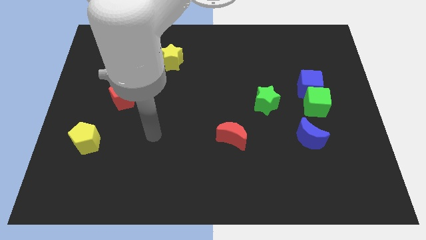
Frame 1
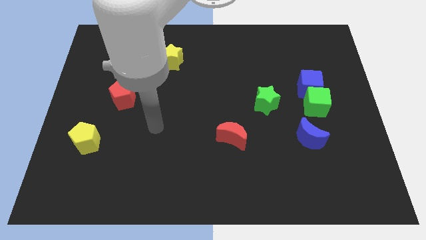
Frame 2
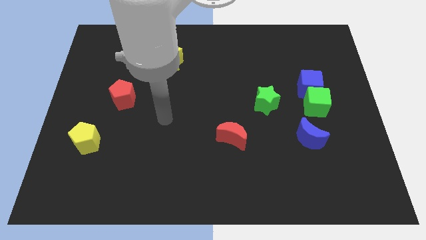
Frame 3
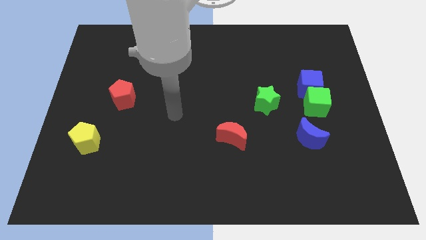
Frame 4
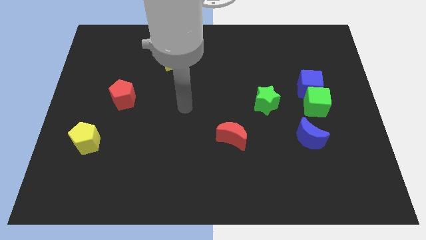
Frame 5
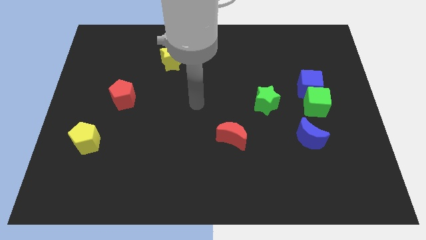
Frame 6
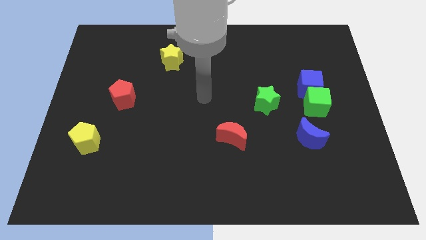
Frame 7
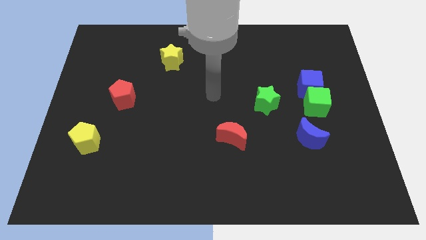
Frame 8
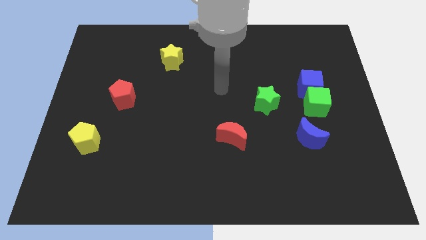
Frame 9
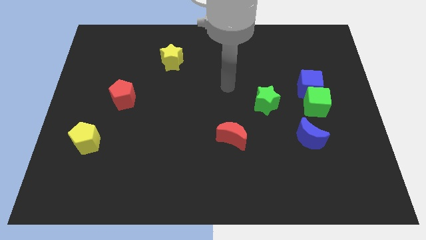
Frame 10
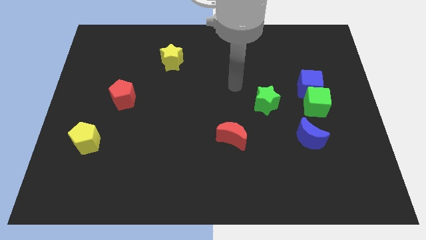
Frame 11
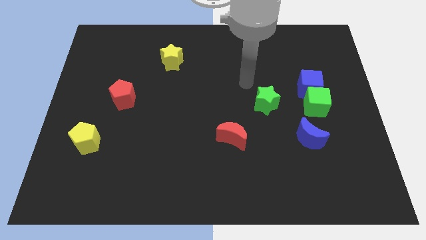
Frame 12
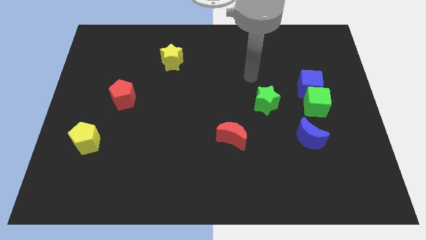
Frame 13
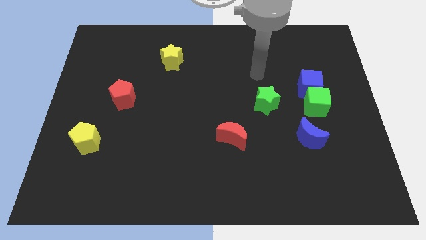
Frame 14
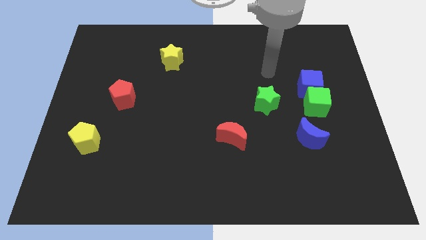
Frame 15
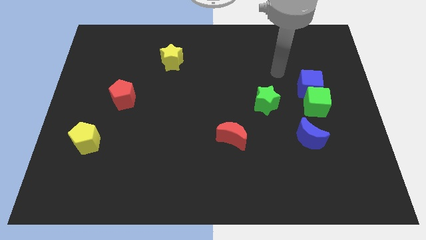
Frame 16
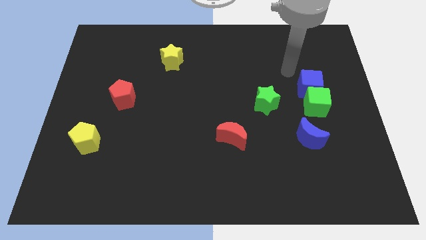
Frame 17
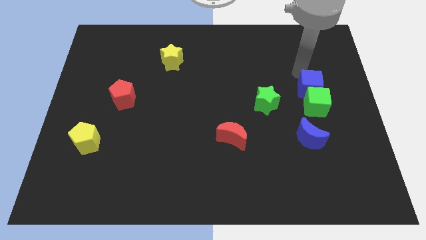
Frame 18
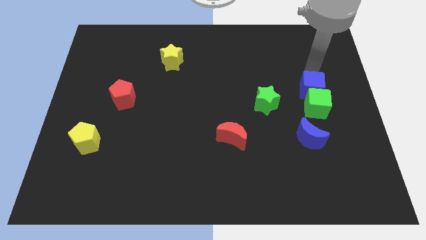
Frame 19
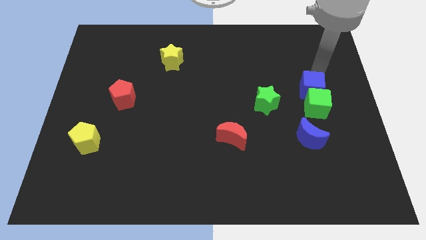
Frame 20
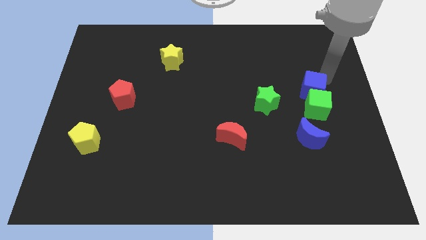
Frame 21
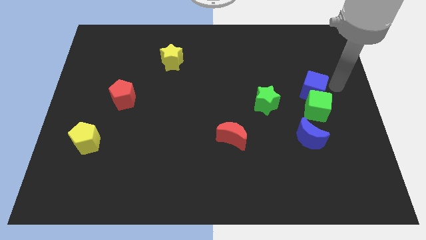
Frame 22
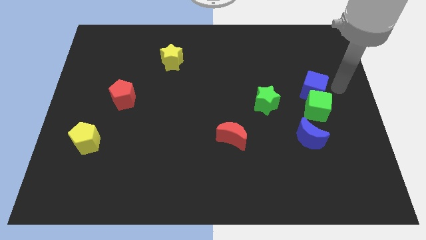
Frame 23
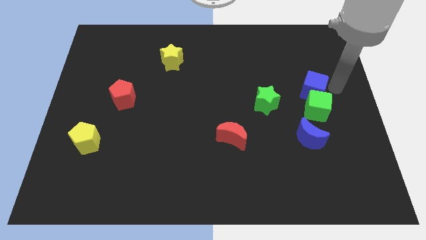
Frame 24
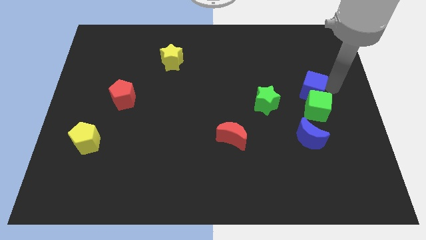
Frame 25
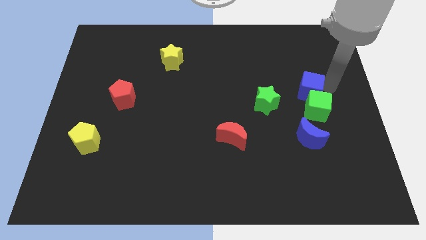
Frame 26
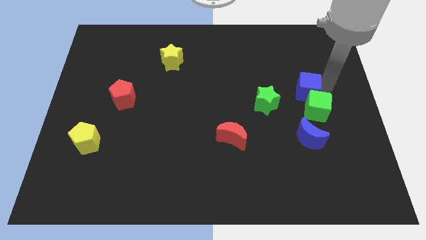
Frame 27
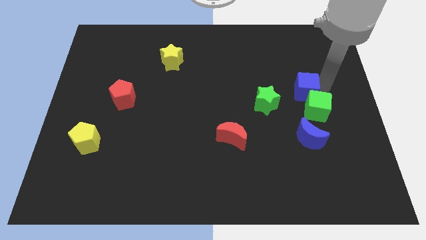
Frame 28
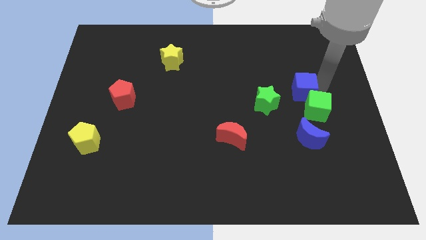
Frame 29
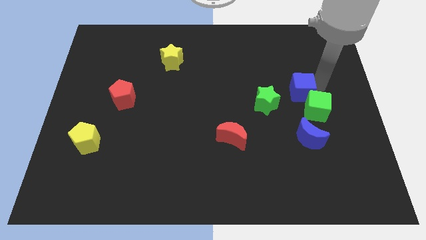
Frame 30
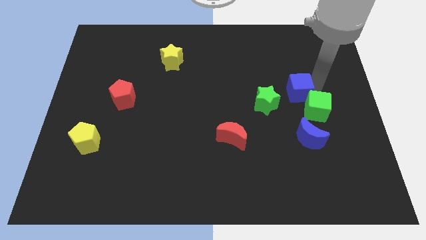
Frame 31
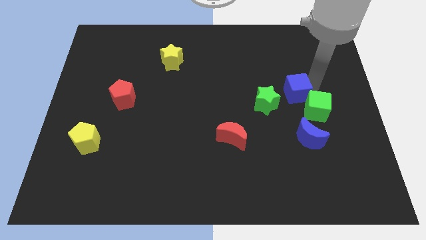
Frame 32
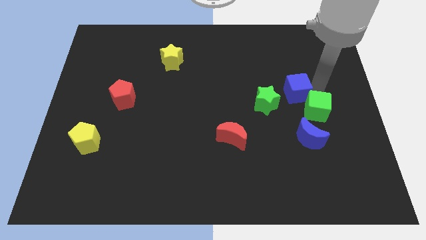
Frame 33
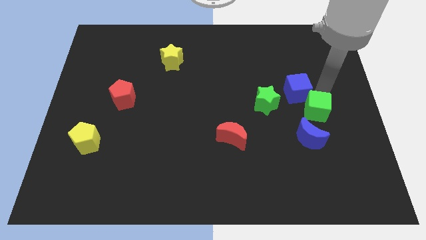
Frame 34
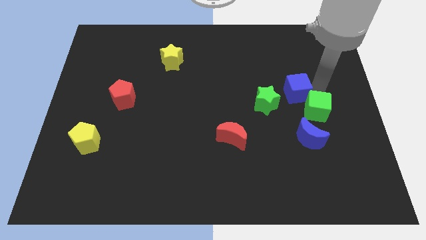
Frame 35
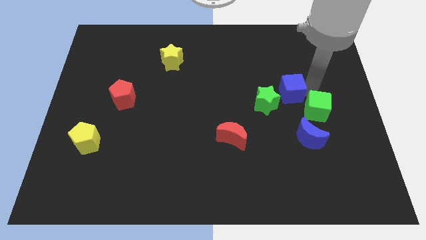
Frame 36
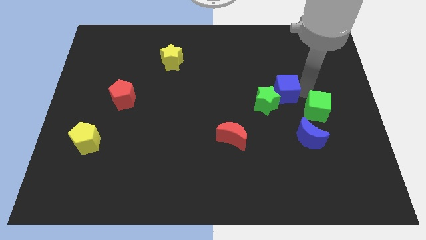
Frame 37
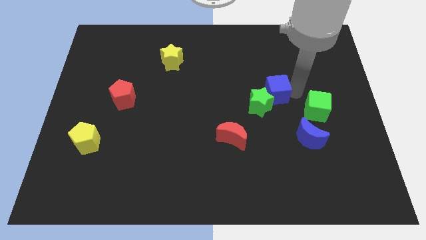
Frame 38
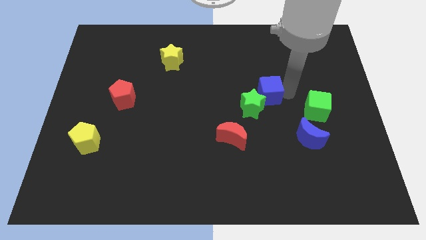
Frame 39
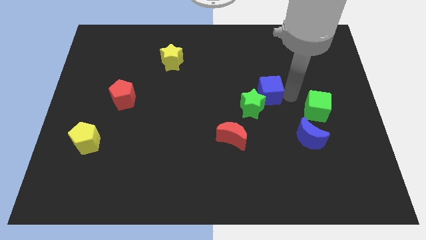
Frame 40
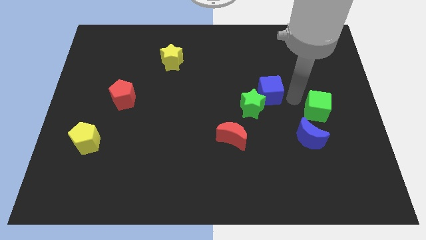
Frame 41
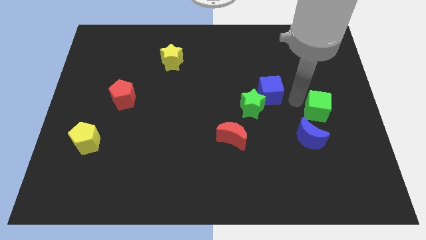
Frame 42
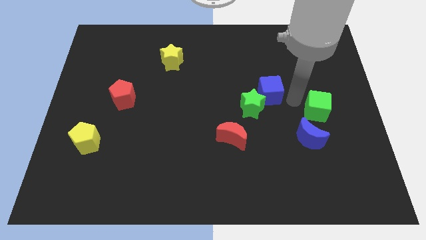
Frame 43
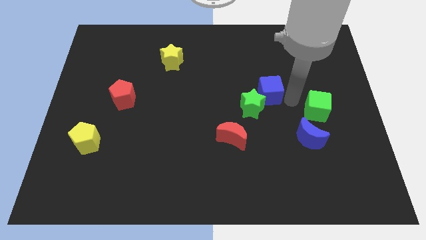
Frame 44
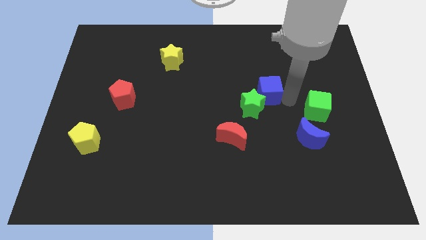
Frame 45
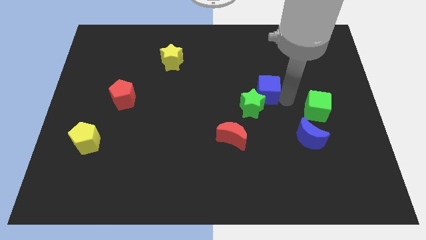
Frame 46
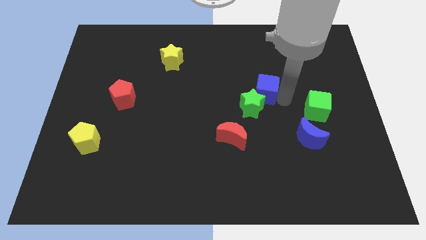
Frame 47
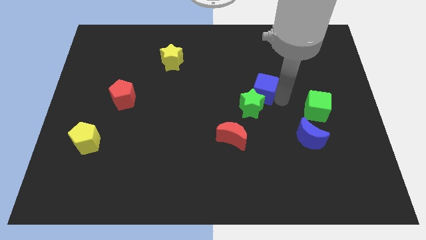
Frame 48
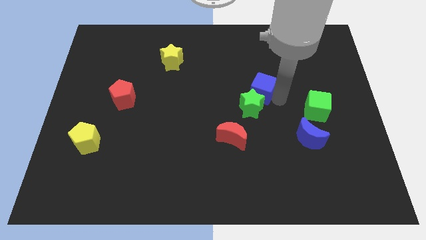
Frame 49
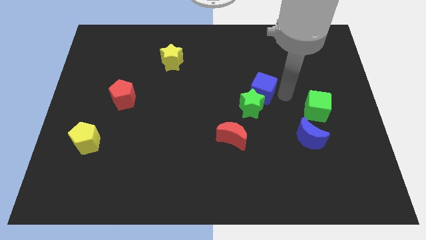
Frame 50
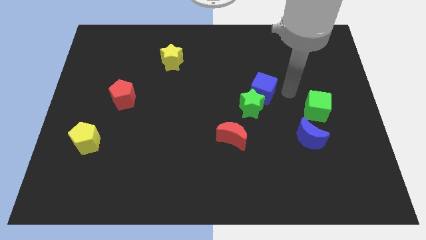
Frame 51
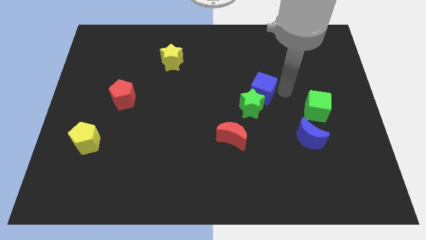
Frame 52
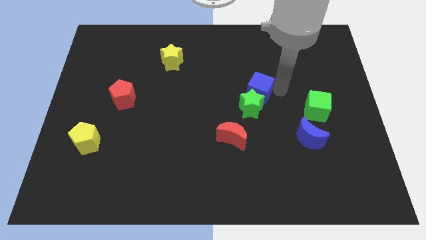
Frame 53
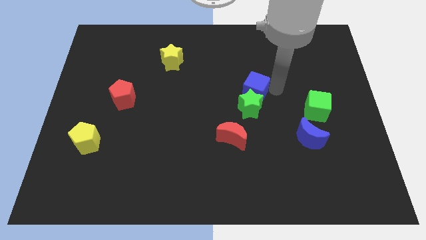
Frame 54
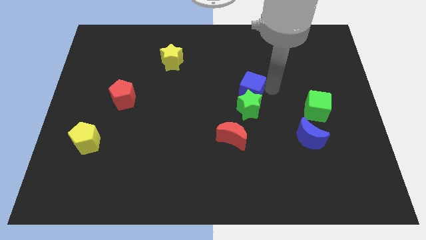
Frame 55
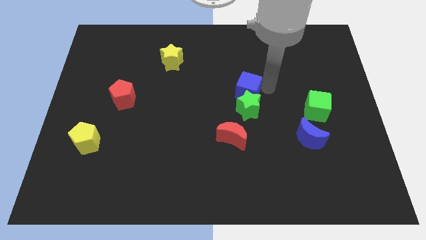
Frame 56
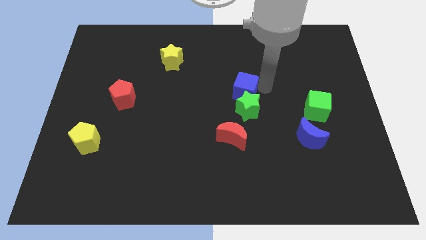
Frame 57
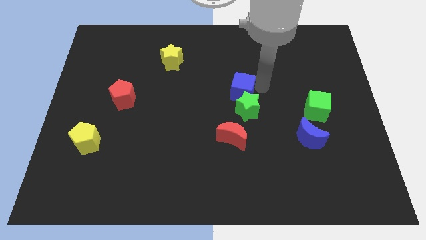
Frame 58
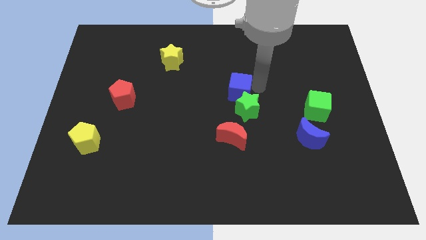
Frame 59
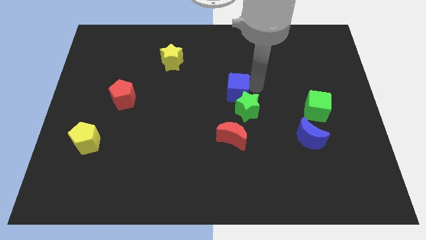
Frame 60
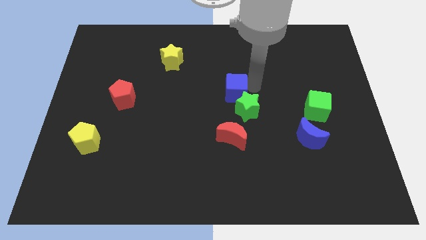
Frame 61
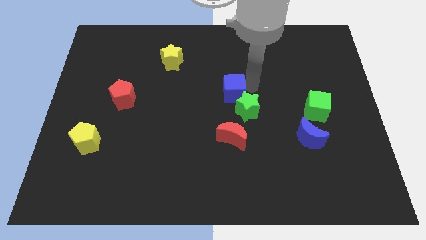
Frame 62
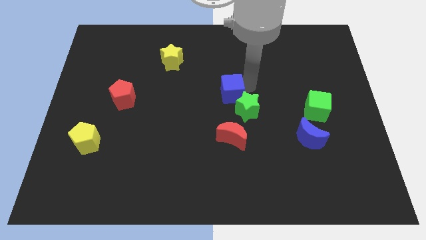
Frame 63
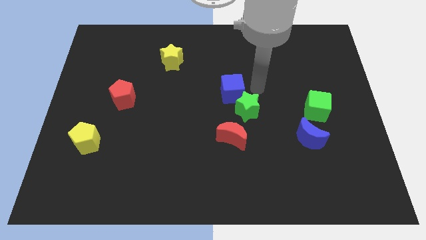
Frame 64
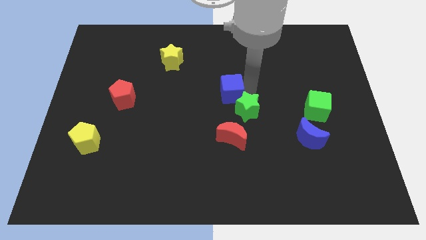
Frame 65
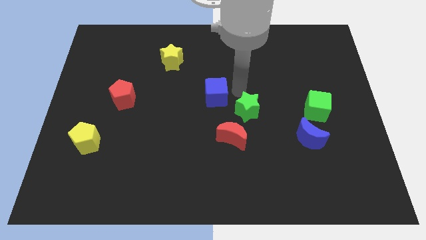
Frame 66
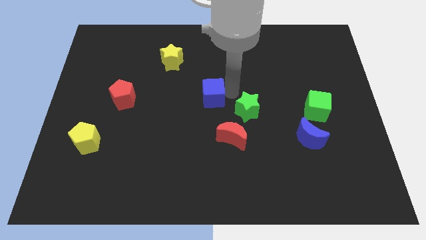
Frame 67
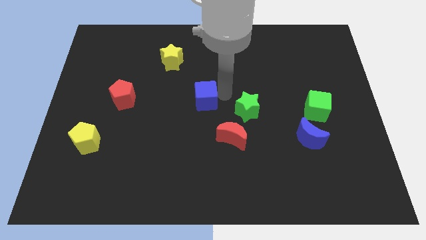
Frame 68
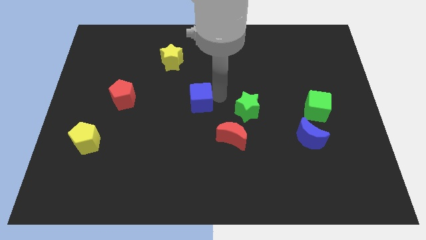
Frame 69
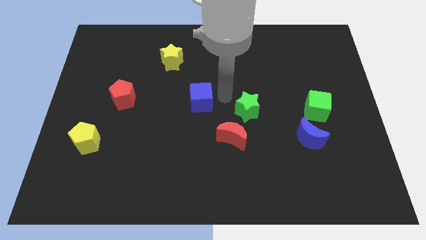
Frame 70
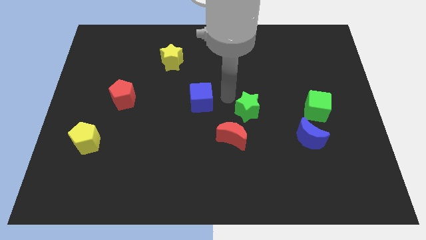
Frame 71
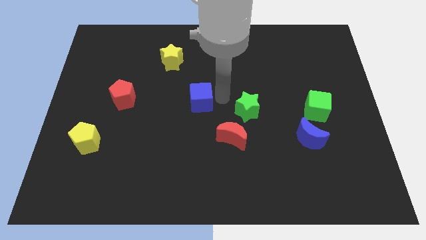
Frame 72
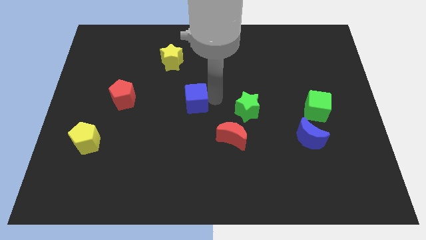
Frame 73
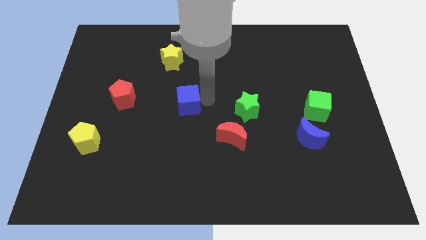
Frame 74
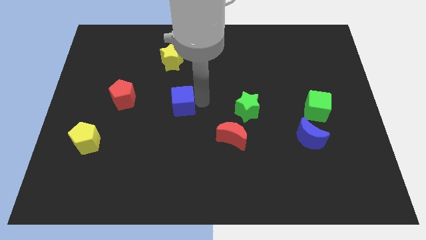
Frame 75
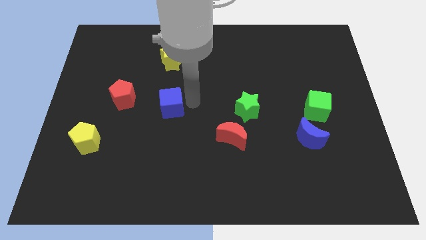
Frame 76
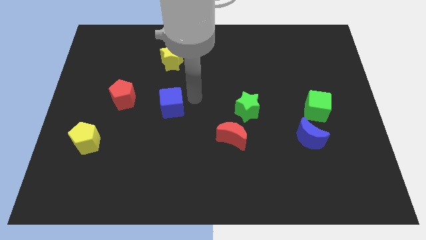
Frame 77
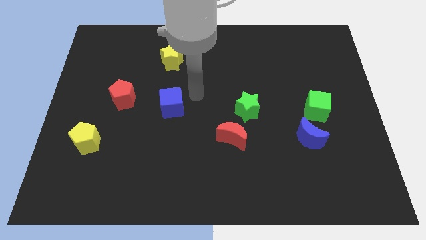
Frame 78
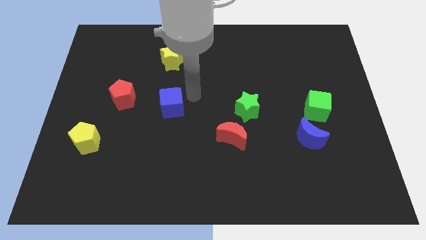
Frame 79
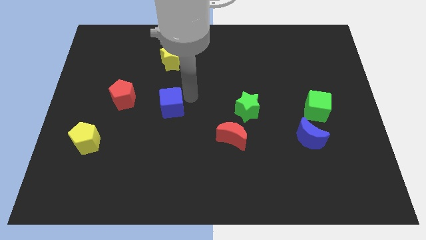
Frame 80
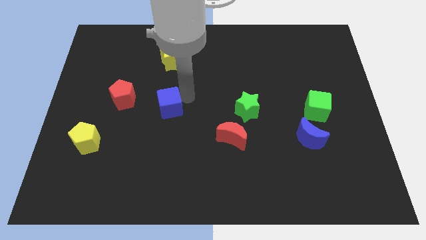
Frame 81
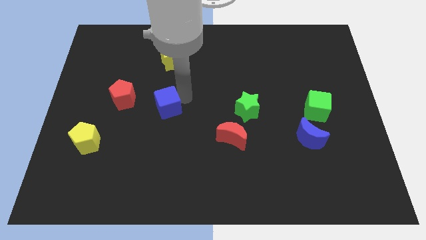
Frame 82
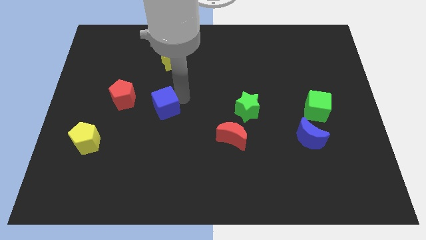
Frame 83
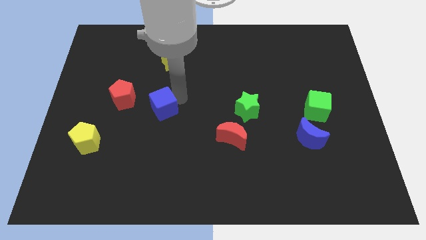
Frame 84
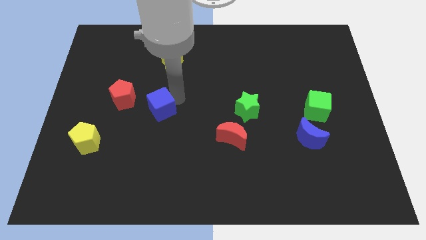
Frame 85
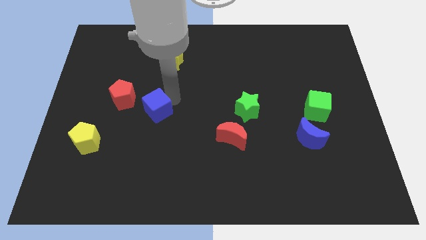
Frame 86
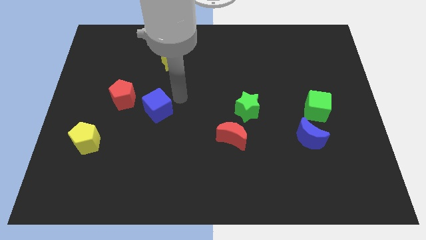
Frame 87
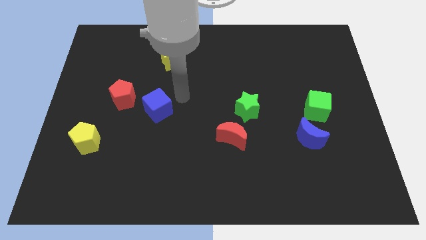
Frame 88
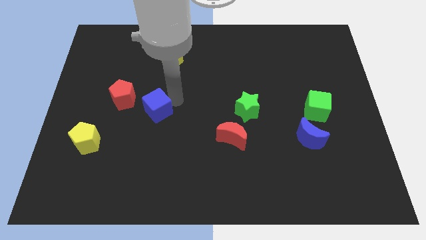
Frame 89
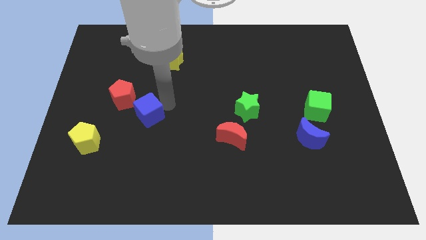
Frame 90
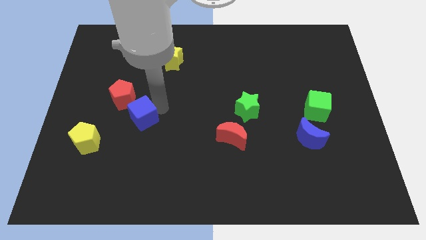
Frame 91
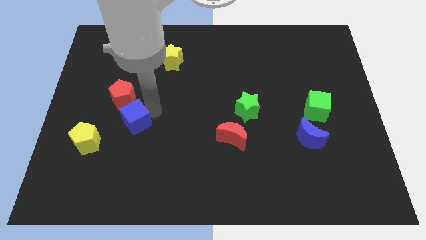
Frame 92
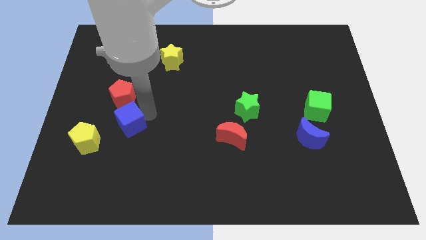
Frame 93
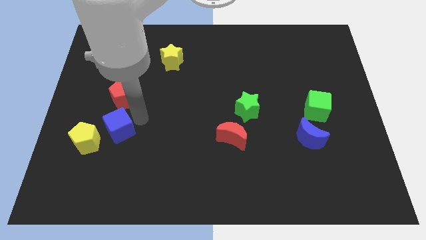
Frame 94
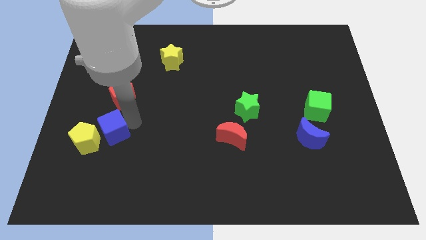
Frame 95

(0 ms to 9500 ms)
push the blue cube close to the yellow pentagon
